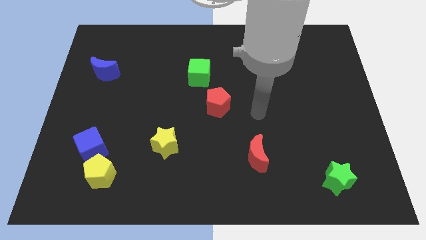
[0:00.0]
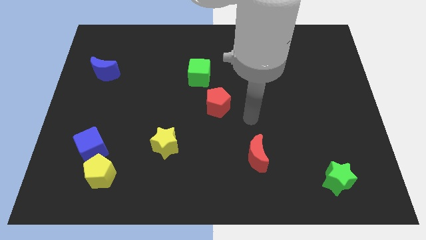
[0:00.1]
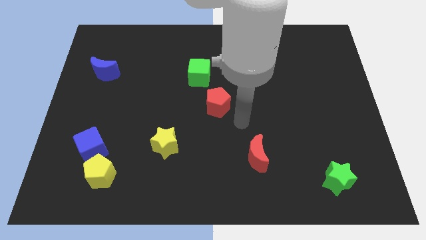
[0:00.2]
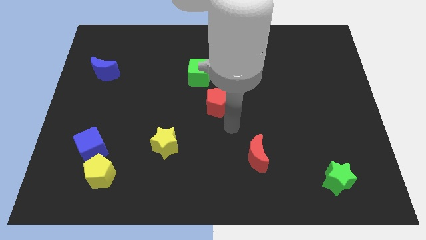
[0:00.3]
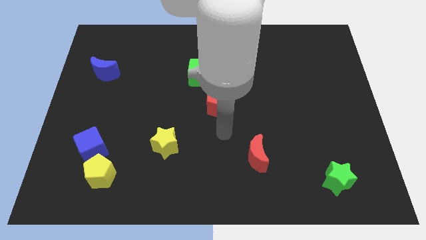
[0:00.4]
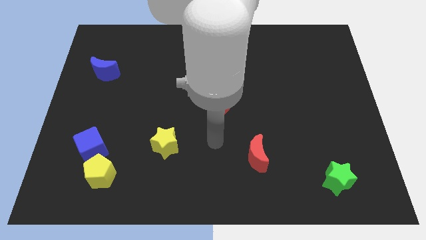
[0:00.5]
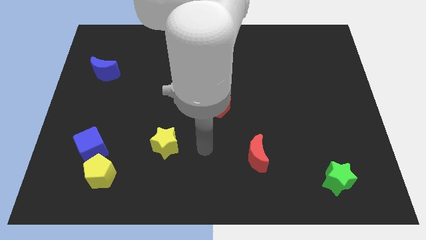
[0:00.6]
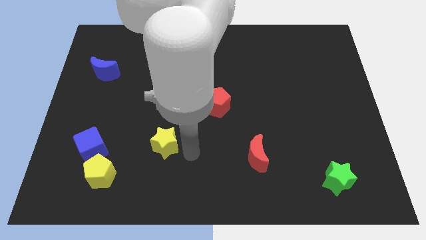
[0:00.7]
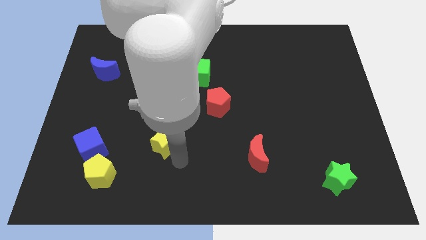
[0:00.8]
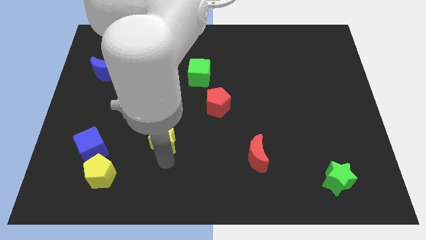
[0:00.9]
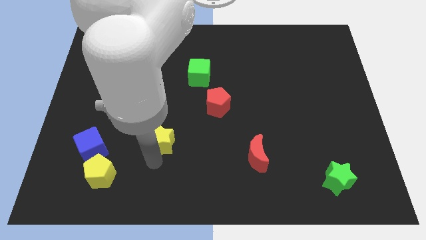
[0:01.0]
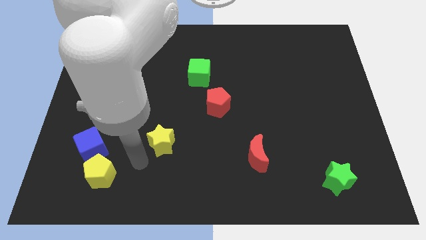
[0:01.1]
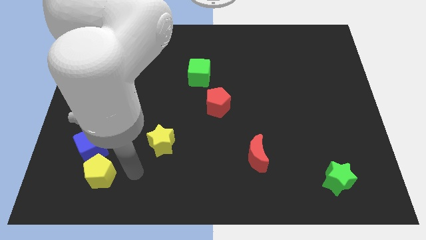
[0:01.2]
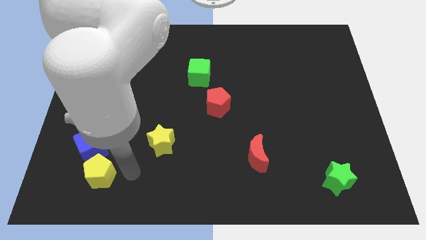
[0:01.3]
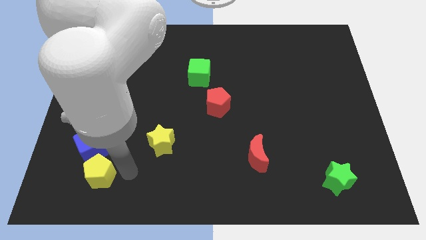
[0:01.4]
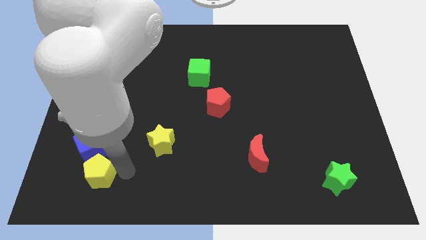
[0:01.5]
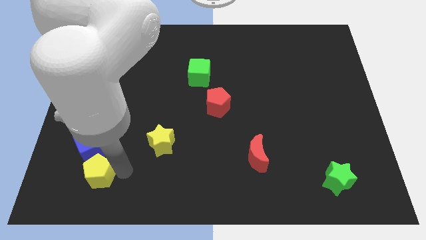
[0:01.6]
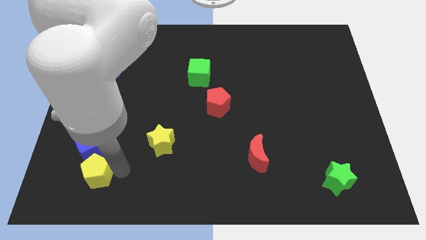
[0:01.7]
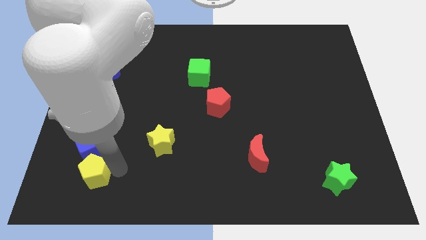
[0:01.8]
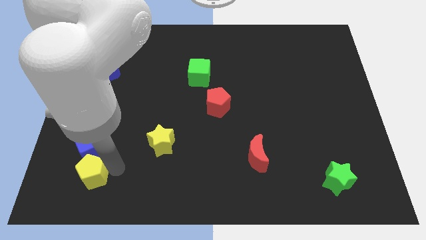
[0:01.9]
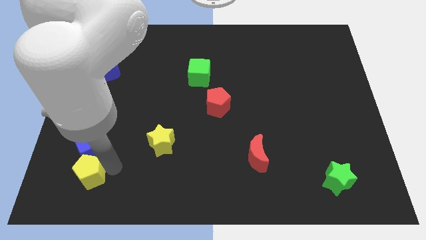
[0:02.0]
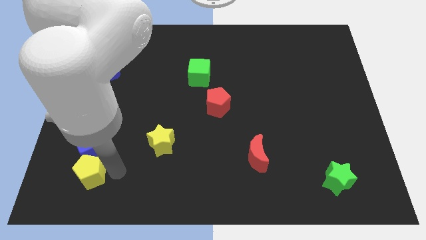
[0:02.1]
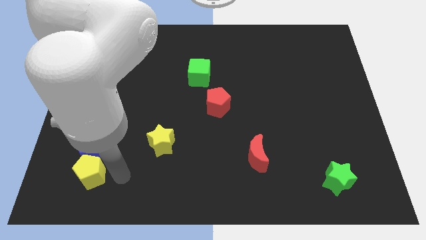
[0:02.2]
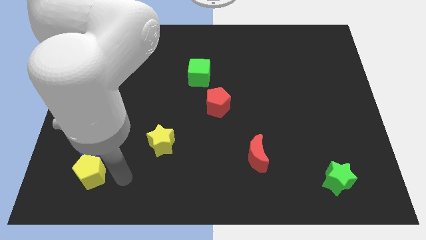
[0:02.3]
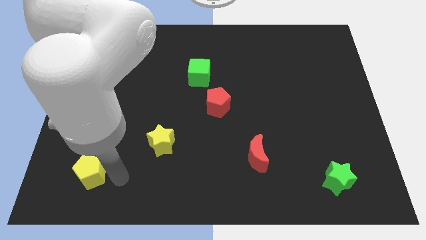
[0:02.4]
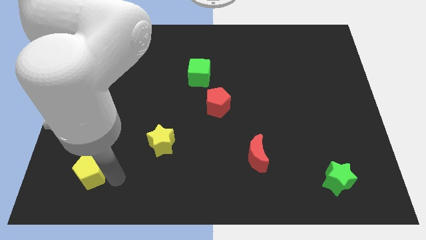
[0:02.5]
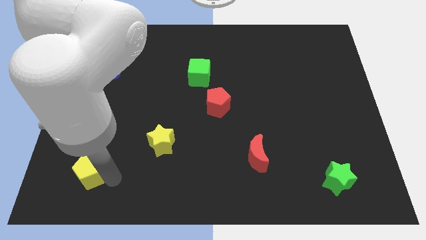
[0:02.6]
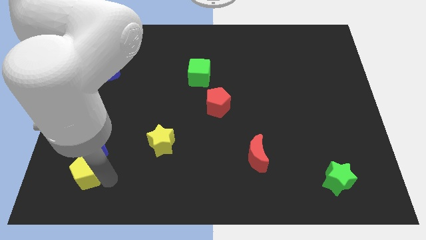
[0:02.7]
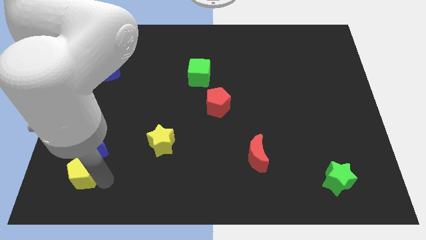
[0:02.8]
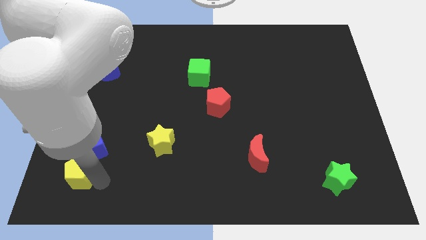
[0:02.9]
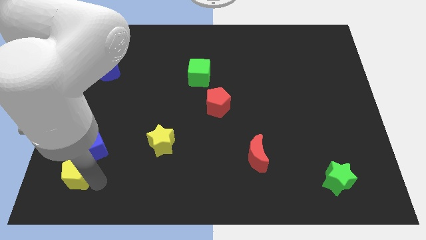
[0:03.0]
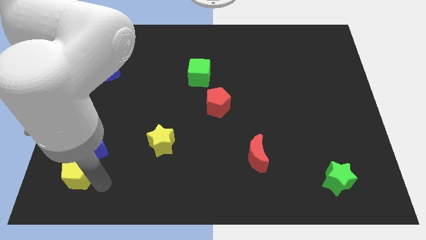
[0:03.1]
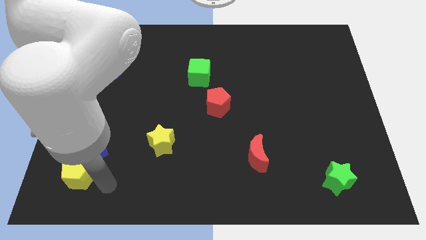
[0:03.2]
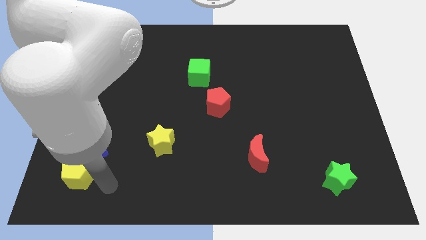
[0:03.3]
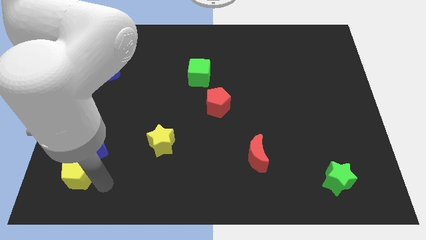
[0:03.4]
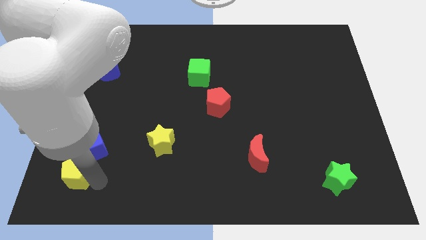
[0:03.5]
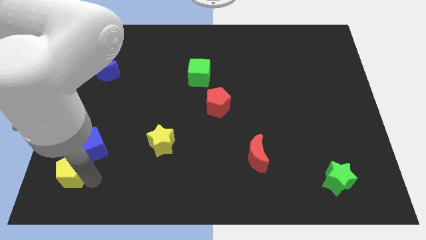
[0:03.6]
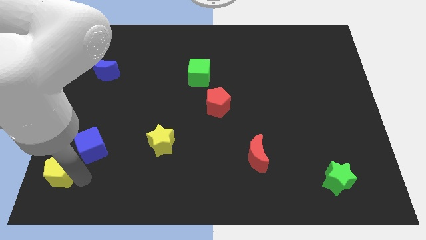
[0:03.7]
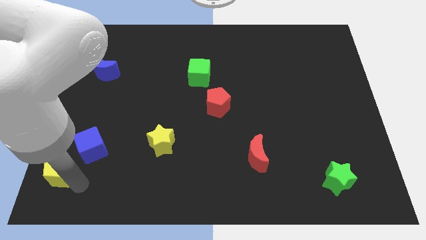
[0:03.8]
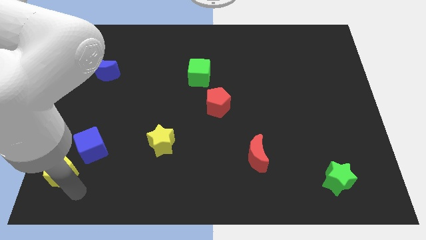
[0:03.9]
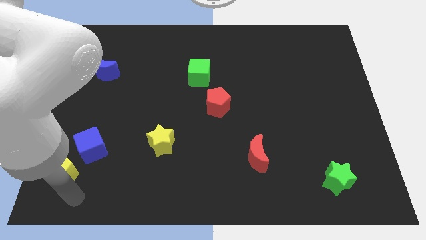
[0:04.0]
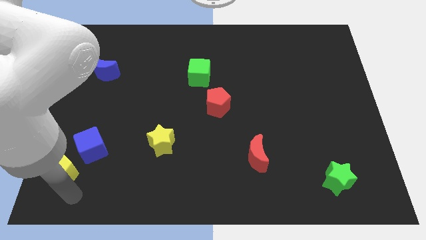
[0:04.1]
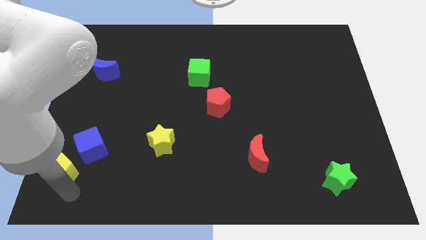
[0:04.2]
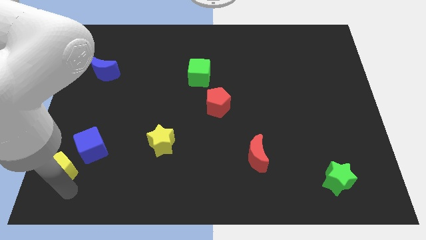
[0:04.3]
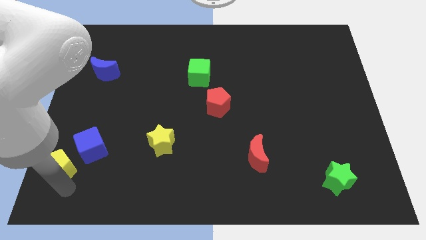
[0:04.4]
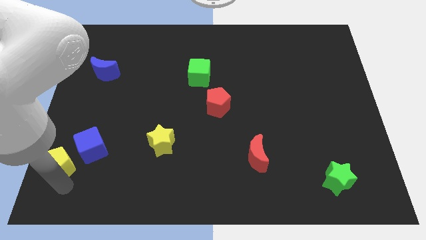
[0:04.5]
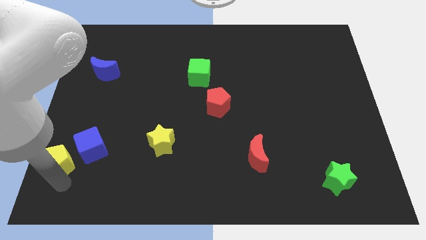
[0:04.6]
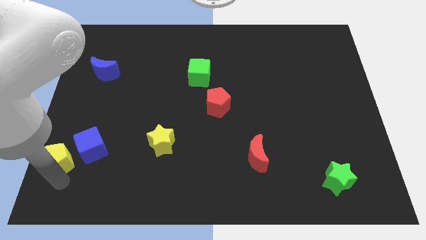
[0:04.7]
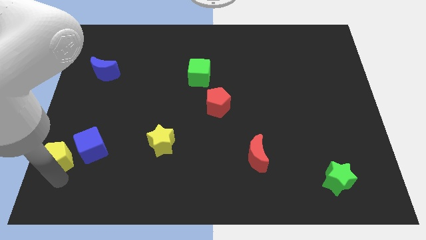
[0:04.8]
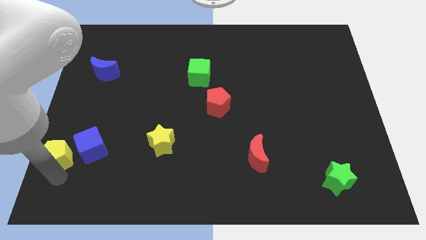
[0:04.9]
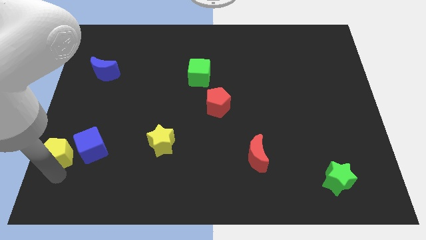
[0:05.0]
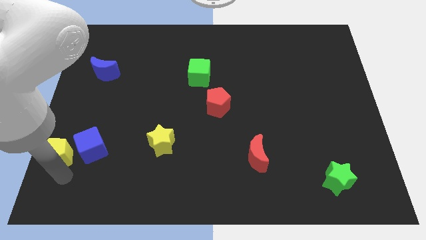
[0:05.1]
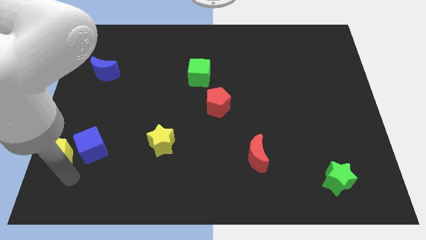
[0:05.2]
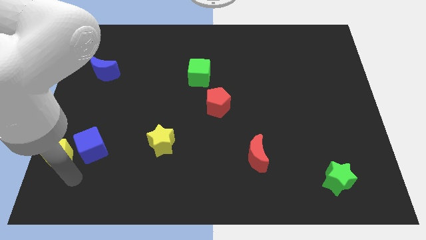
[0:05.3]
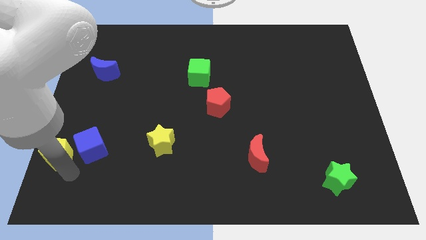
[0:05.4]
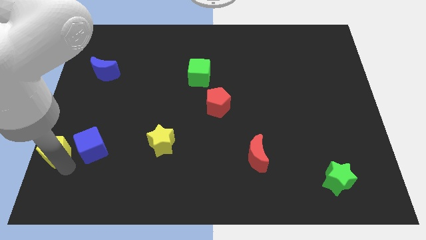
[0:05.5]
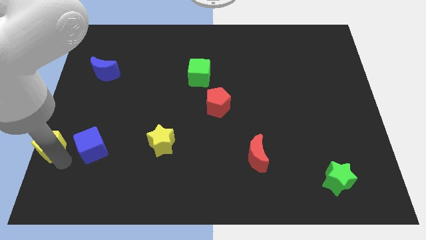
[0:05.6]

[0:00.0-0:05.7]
move the yellow pentagon to the center left
